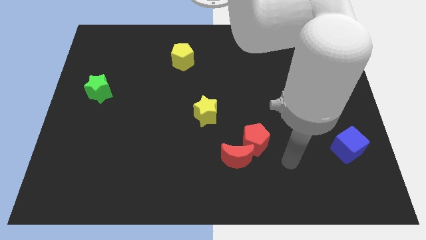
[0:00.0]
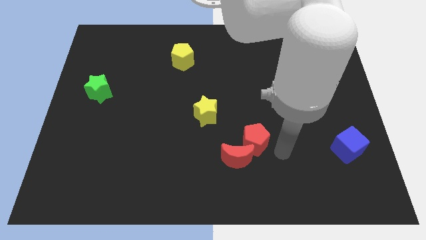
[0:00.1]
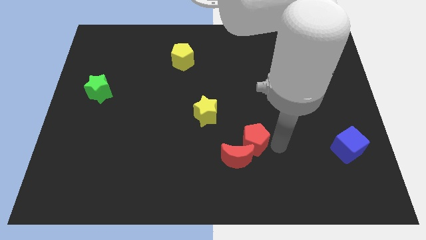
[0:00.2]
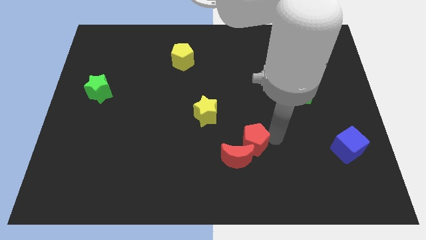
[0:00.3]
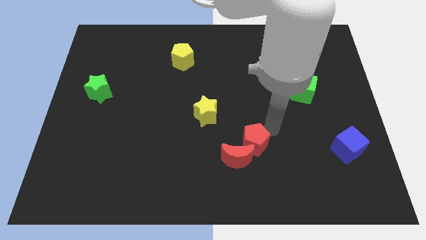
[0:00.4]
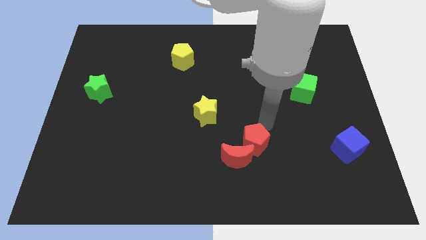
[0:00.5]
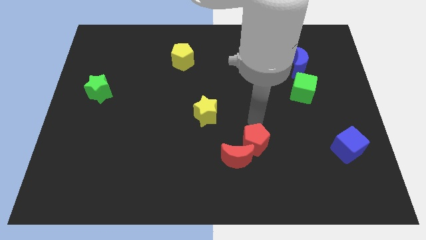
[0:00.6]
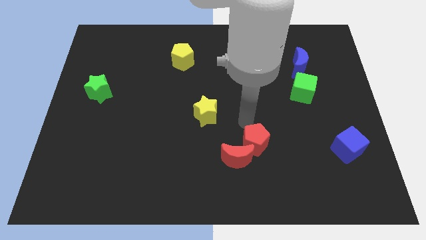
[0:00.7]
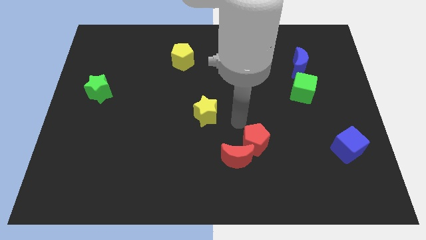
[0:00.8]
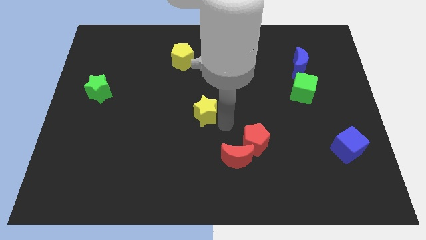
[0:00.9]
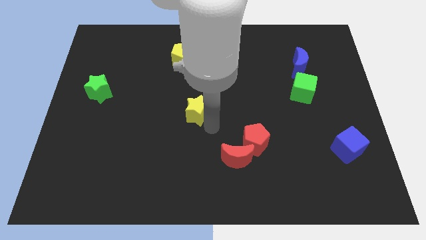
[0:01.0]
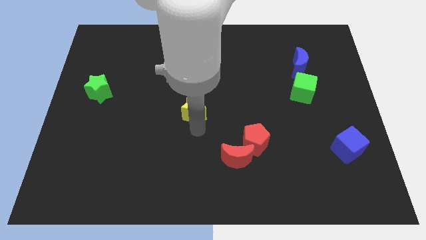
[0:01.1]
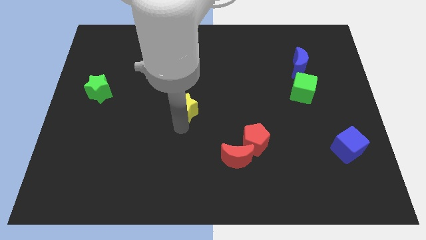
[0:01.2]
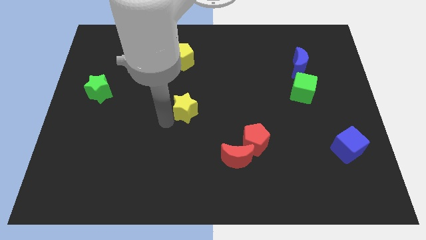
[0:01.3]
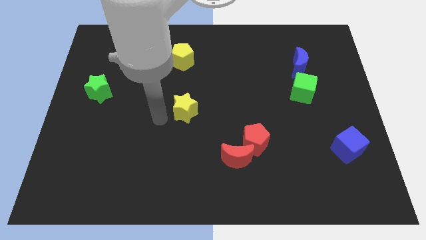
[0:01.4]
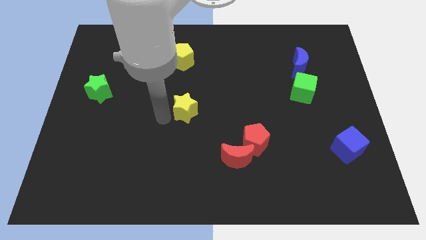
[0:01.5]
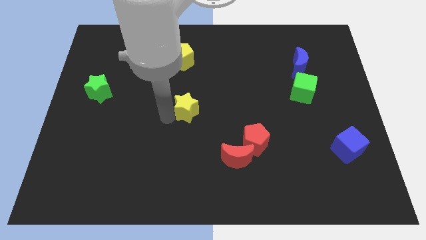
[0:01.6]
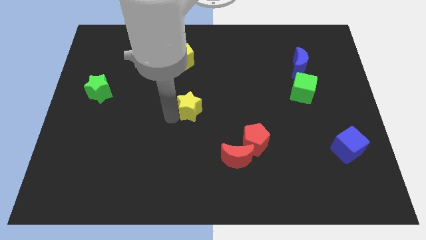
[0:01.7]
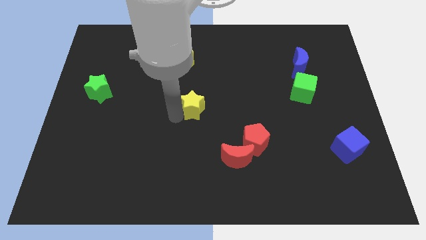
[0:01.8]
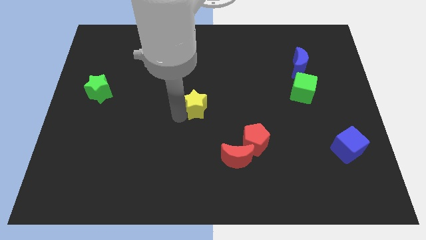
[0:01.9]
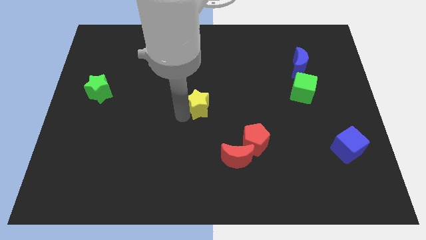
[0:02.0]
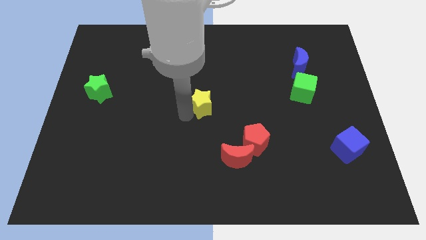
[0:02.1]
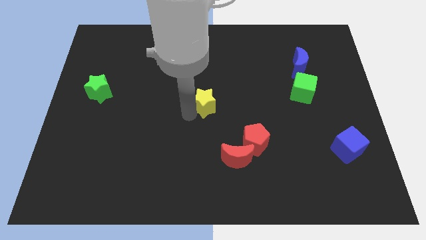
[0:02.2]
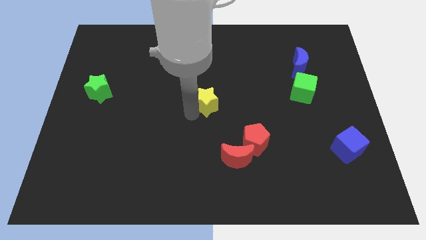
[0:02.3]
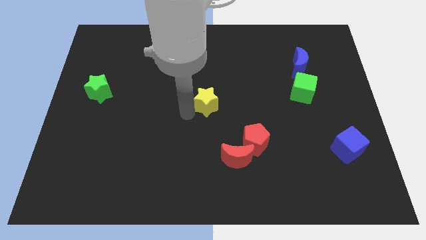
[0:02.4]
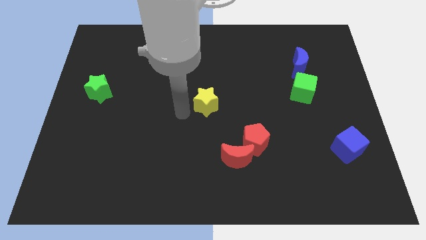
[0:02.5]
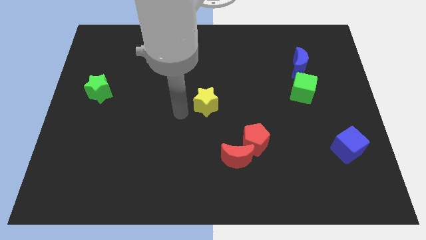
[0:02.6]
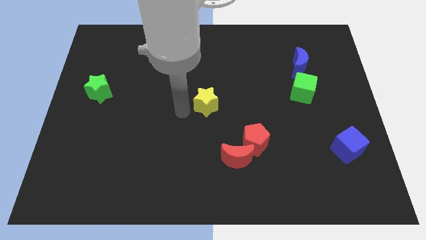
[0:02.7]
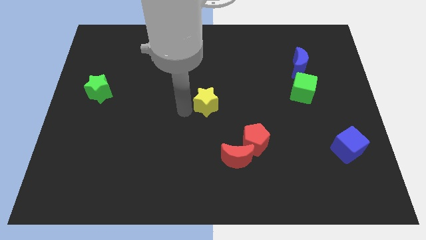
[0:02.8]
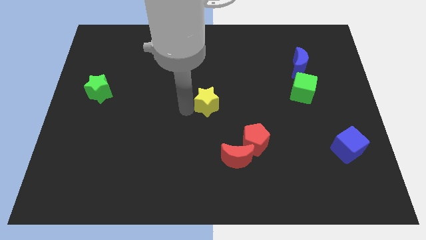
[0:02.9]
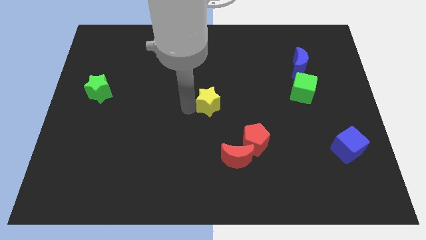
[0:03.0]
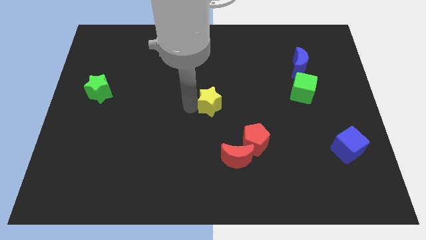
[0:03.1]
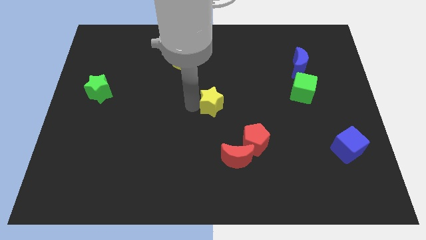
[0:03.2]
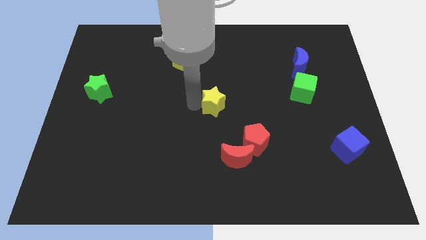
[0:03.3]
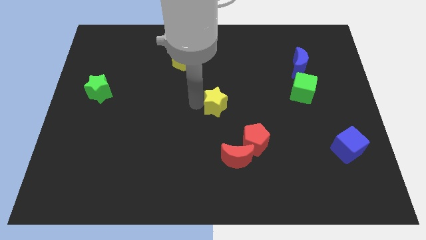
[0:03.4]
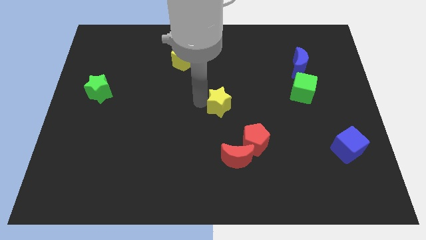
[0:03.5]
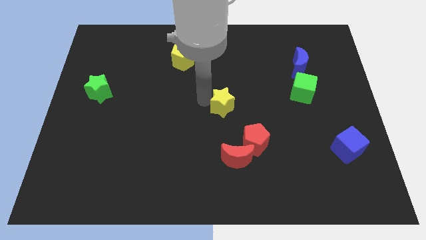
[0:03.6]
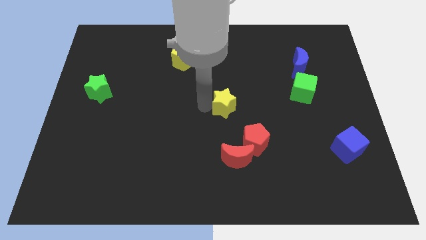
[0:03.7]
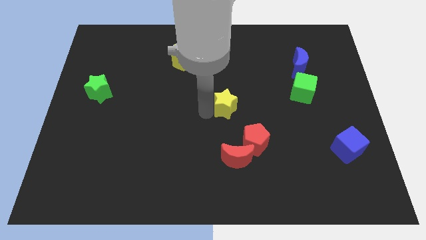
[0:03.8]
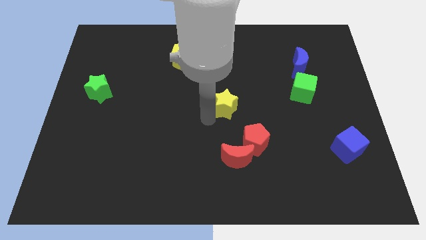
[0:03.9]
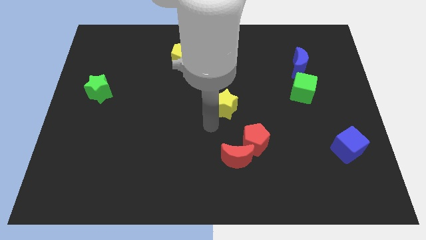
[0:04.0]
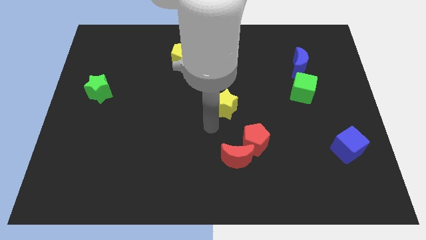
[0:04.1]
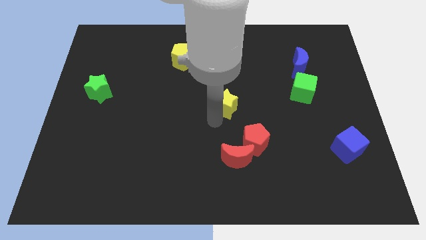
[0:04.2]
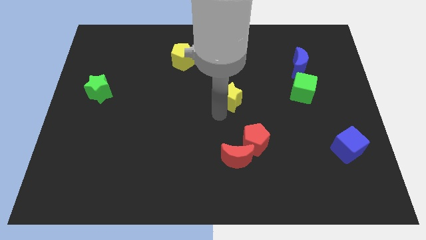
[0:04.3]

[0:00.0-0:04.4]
slide the yellow star upwards and right a little bit

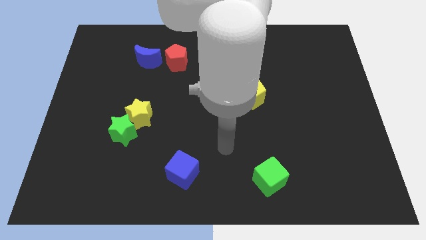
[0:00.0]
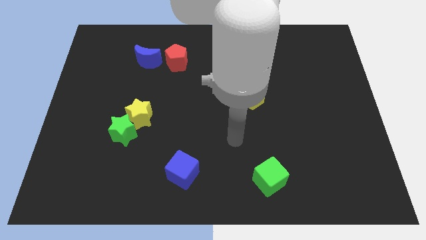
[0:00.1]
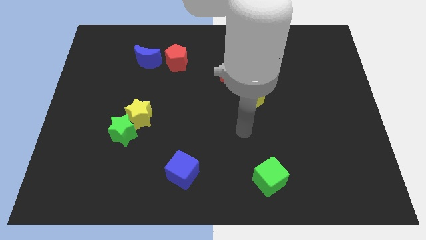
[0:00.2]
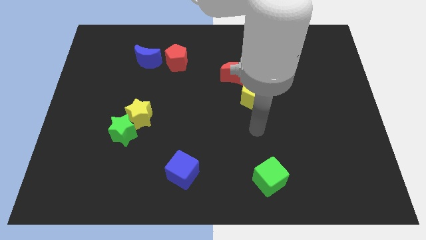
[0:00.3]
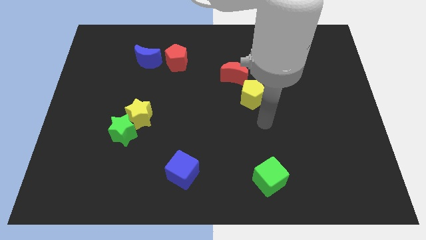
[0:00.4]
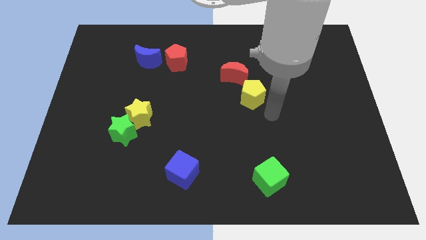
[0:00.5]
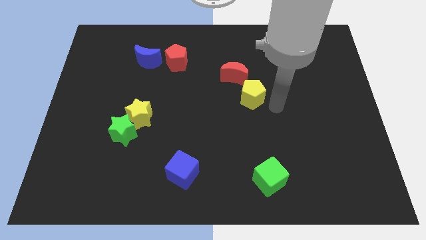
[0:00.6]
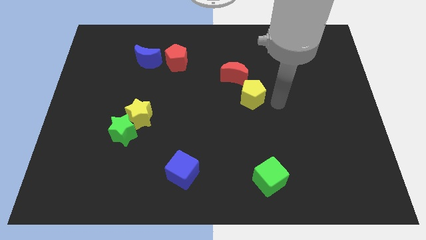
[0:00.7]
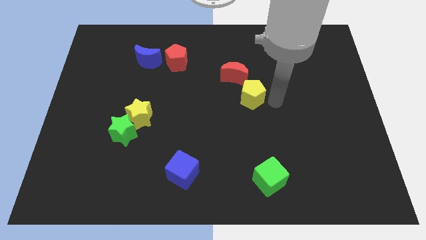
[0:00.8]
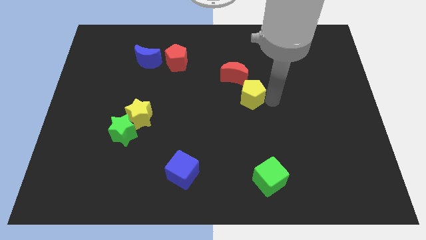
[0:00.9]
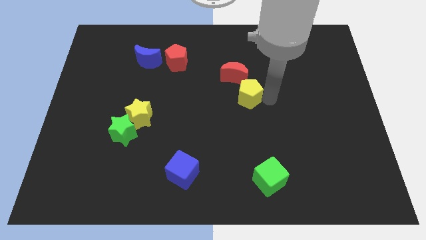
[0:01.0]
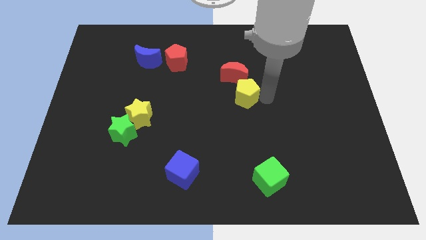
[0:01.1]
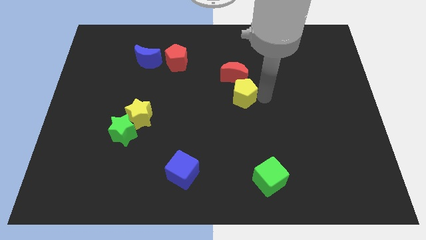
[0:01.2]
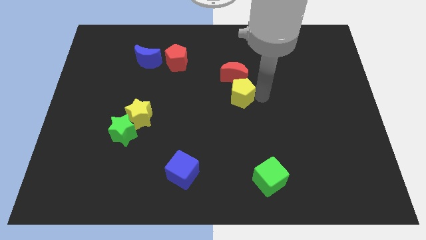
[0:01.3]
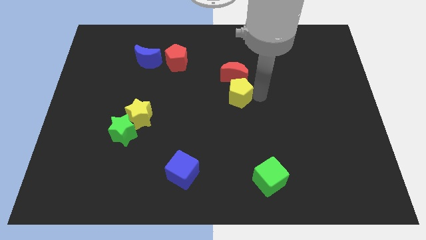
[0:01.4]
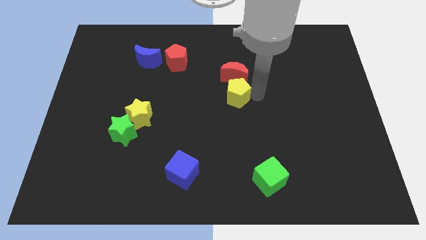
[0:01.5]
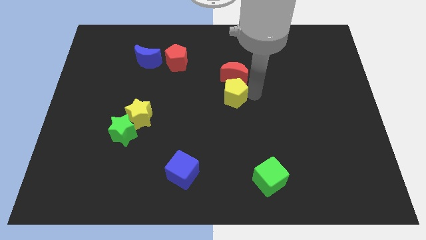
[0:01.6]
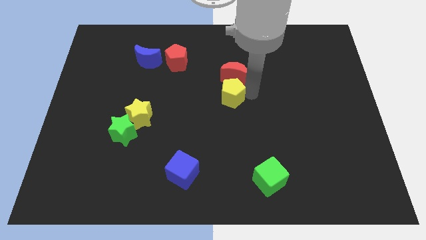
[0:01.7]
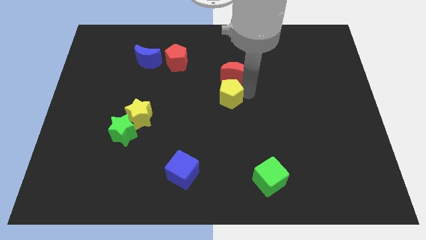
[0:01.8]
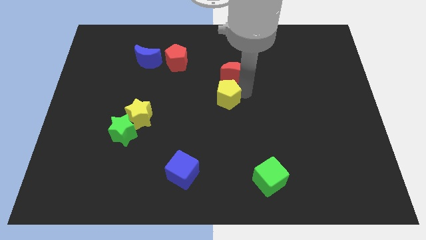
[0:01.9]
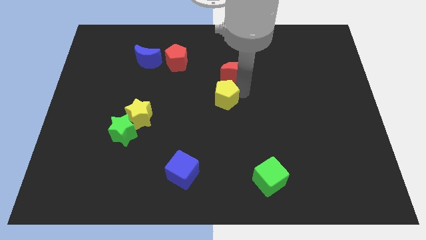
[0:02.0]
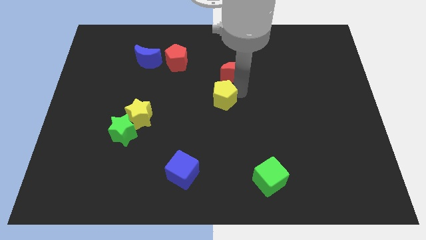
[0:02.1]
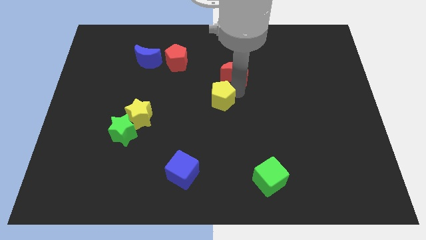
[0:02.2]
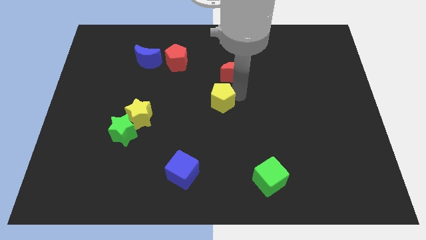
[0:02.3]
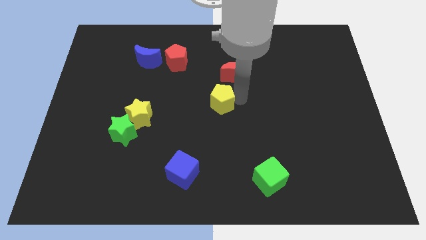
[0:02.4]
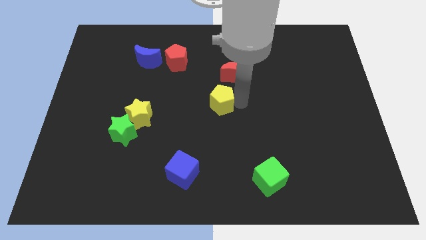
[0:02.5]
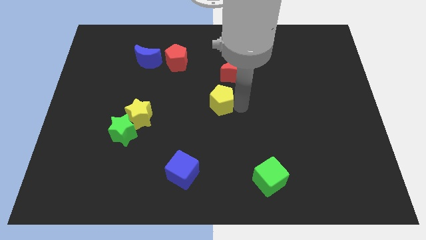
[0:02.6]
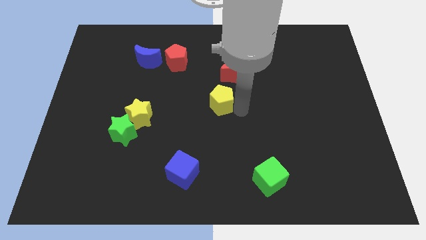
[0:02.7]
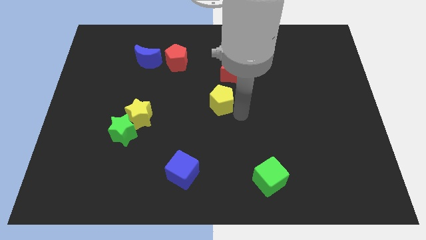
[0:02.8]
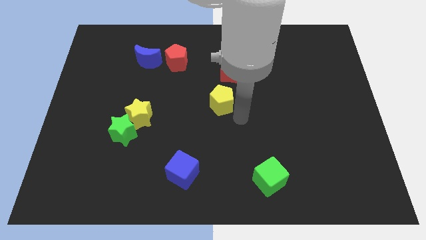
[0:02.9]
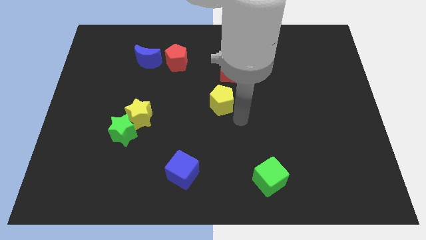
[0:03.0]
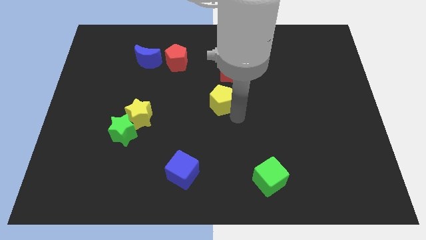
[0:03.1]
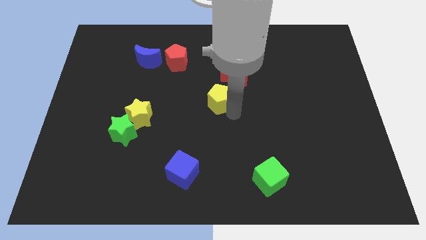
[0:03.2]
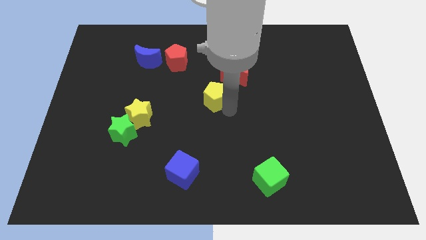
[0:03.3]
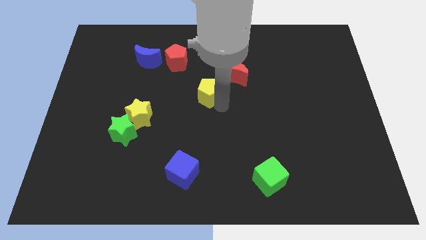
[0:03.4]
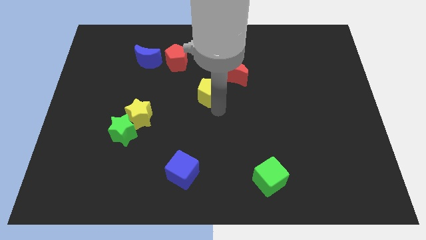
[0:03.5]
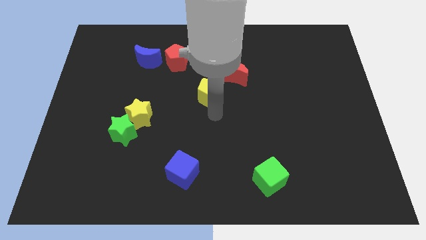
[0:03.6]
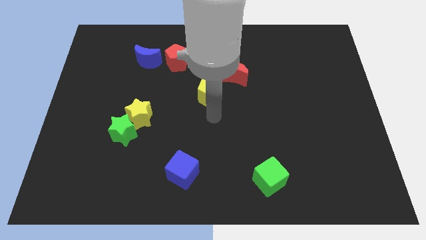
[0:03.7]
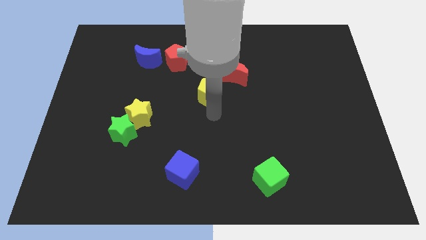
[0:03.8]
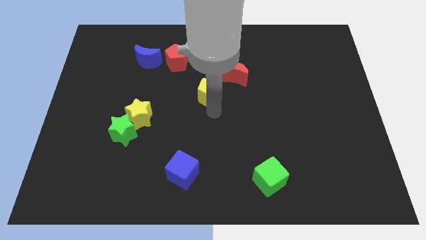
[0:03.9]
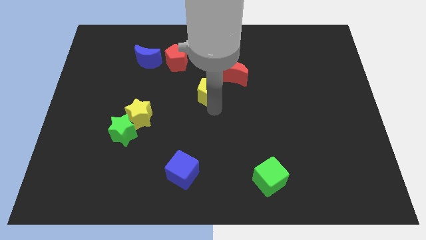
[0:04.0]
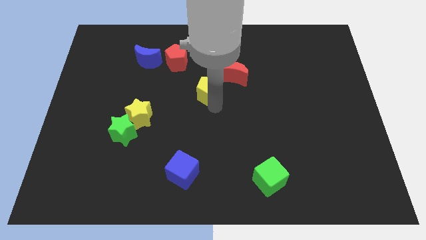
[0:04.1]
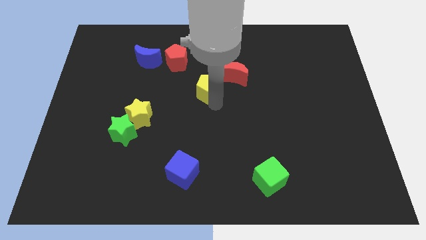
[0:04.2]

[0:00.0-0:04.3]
move the yellow pentagon up and then to the left a little
